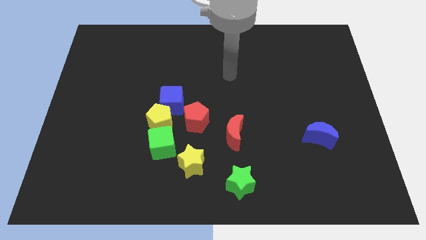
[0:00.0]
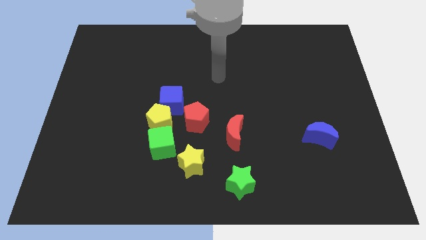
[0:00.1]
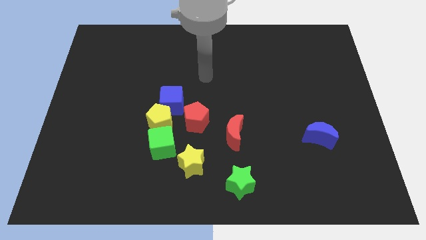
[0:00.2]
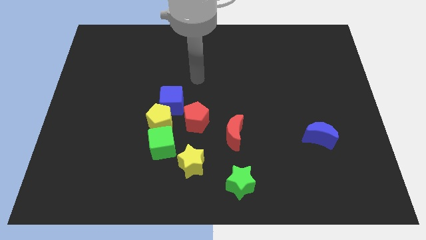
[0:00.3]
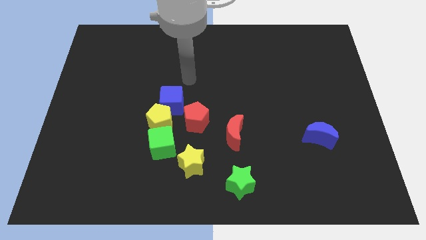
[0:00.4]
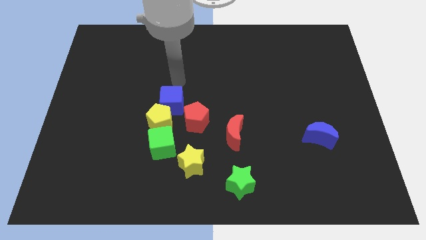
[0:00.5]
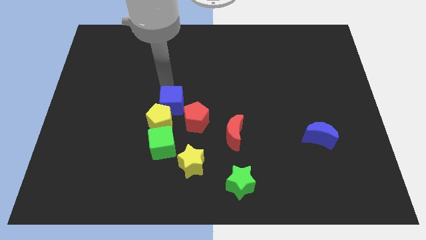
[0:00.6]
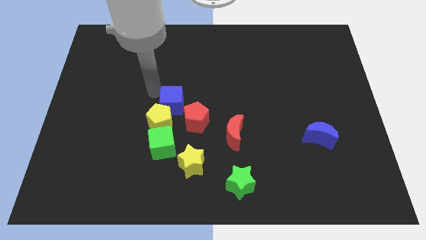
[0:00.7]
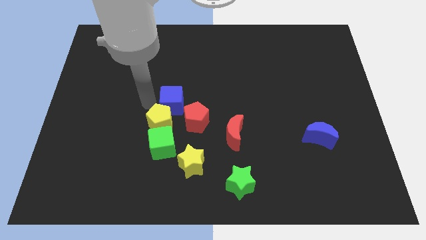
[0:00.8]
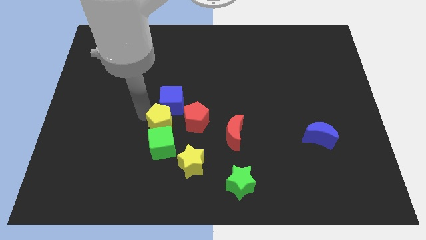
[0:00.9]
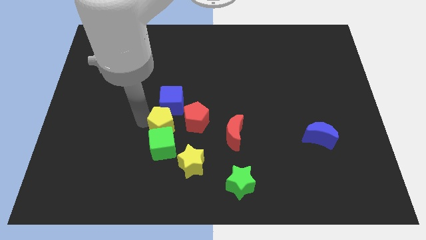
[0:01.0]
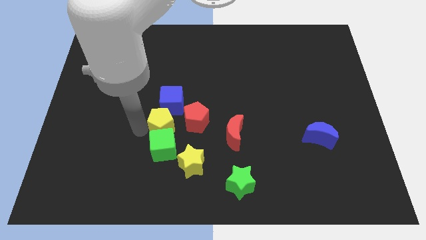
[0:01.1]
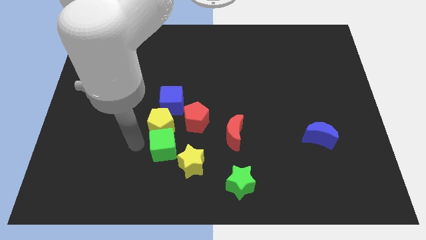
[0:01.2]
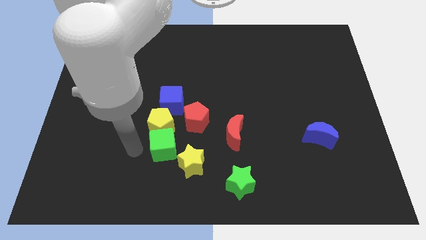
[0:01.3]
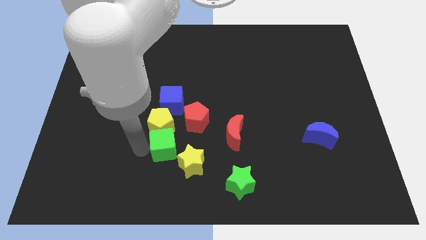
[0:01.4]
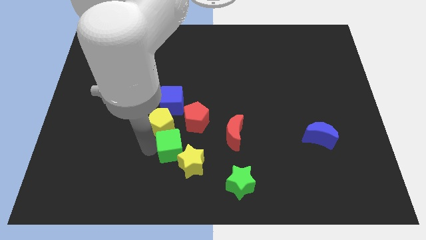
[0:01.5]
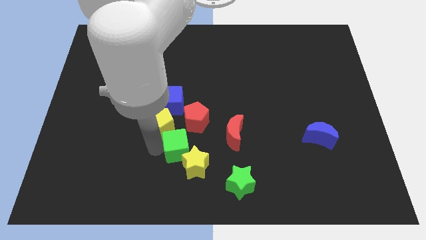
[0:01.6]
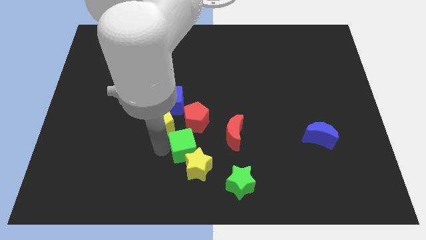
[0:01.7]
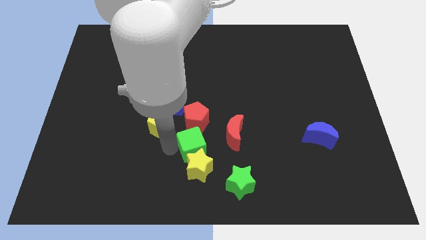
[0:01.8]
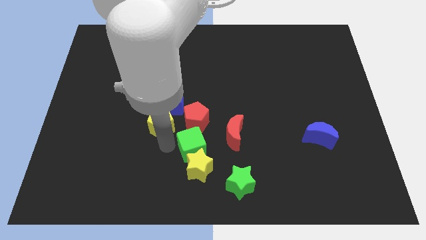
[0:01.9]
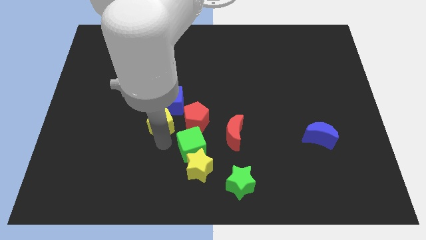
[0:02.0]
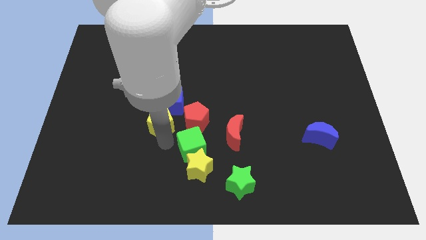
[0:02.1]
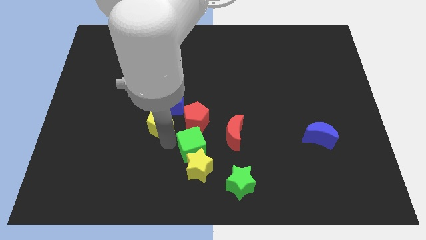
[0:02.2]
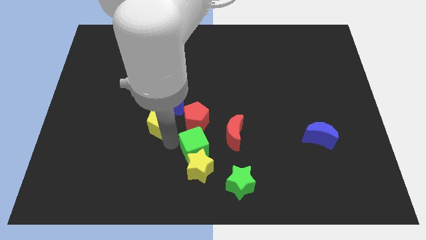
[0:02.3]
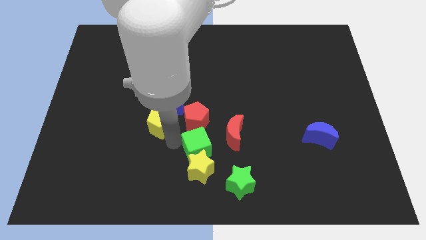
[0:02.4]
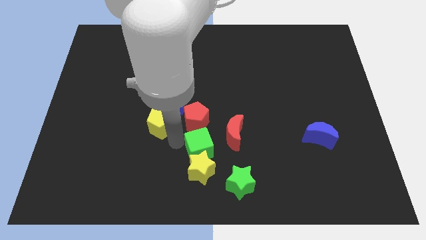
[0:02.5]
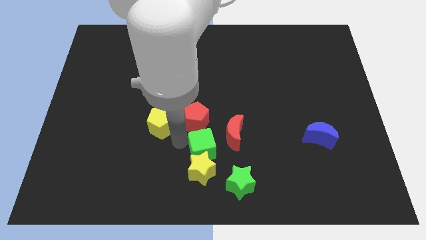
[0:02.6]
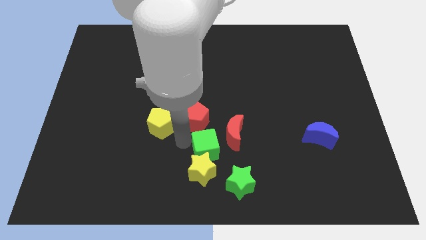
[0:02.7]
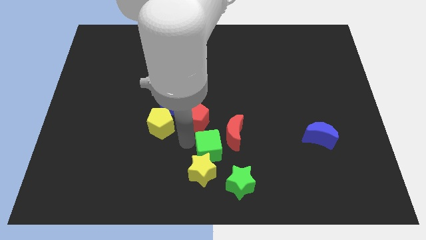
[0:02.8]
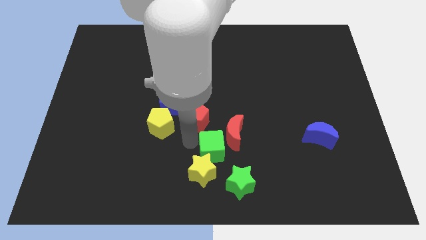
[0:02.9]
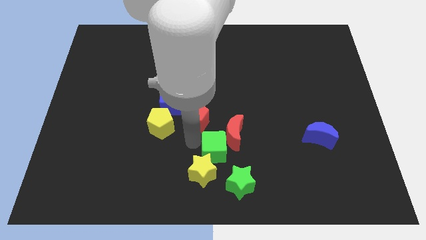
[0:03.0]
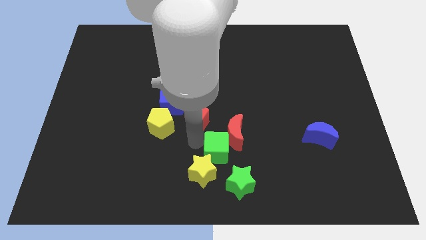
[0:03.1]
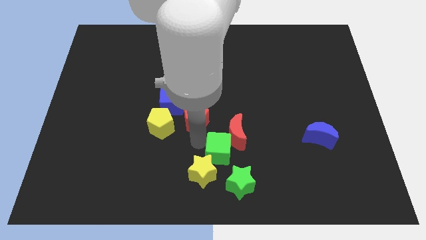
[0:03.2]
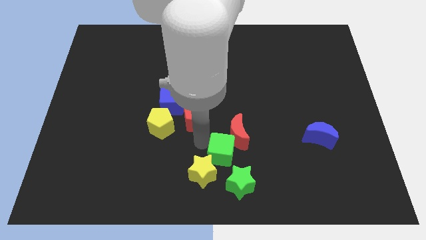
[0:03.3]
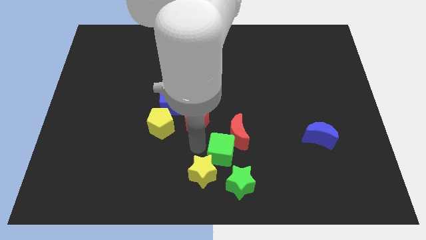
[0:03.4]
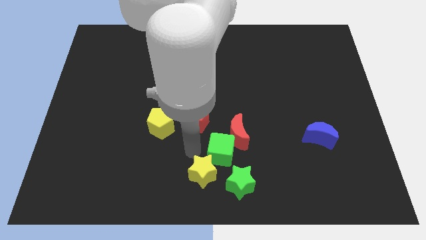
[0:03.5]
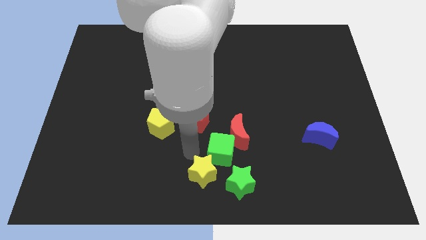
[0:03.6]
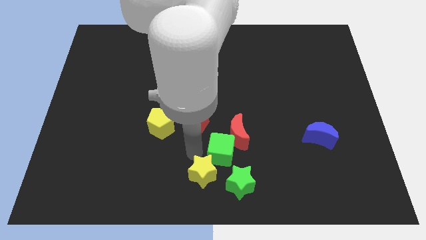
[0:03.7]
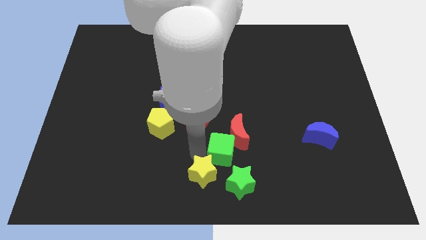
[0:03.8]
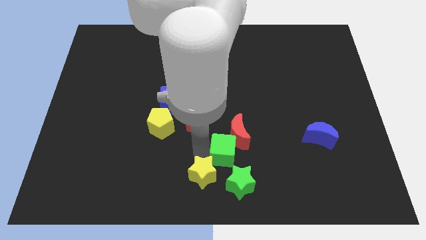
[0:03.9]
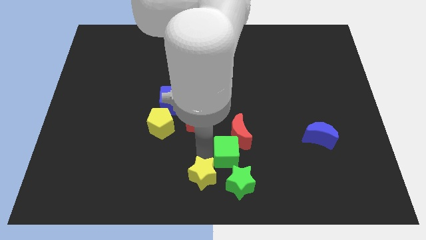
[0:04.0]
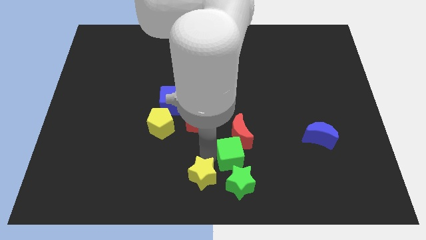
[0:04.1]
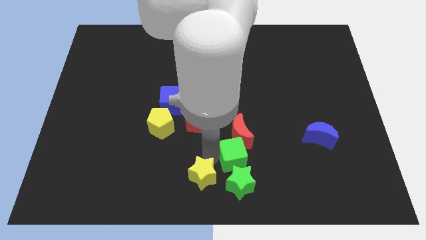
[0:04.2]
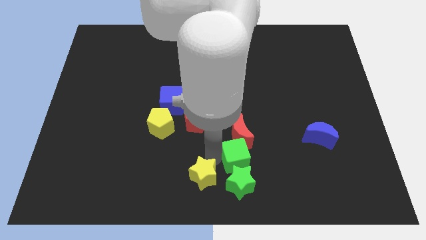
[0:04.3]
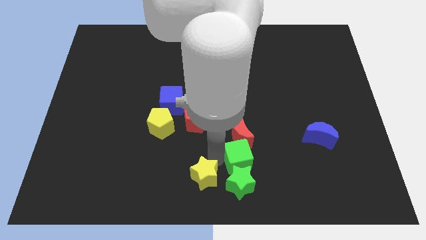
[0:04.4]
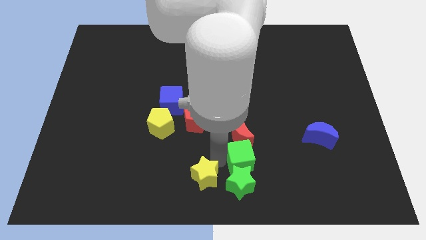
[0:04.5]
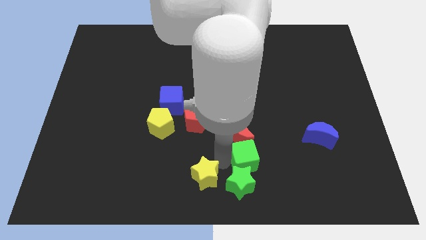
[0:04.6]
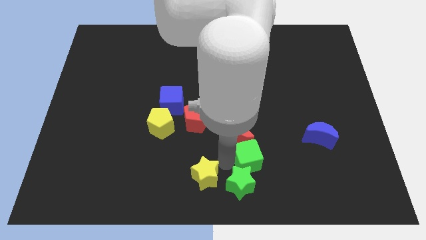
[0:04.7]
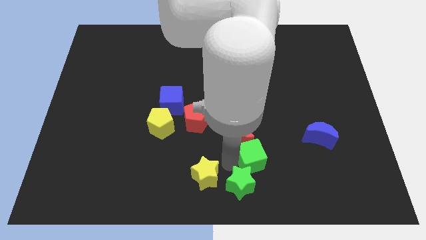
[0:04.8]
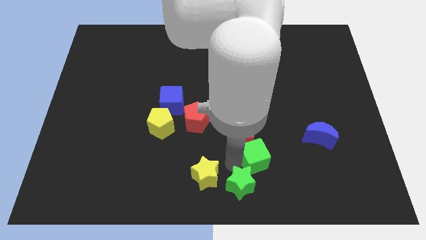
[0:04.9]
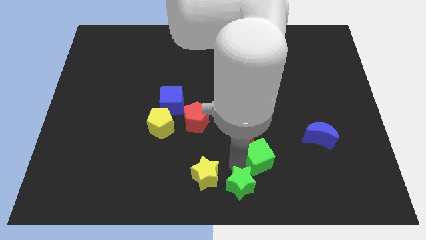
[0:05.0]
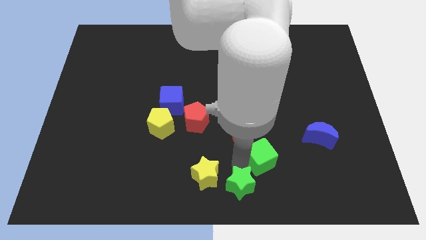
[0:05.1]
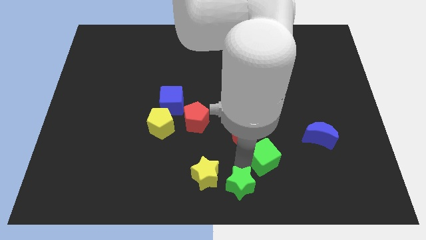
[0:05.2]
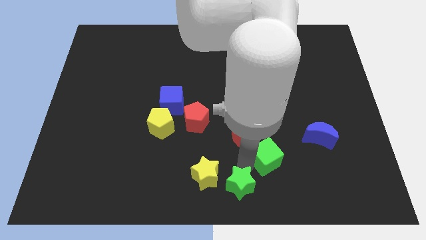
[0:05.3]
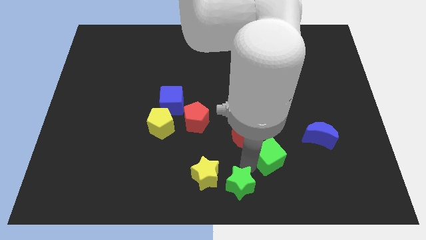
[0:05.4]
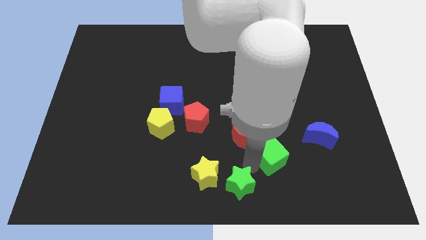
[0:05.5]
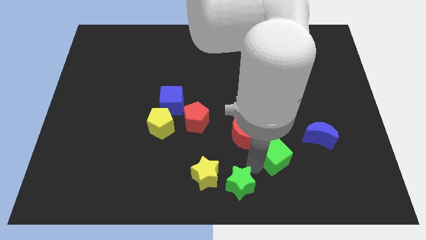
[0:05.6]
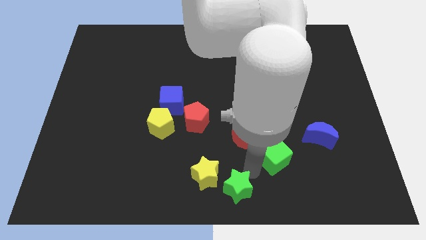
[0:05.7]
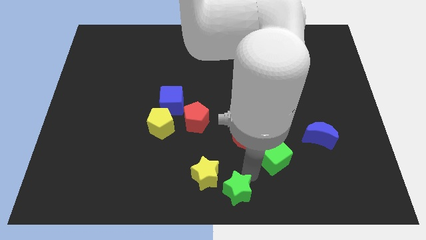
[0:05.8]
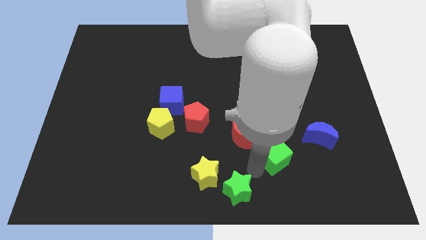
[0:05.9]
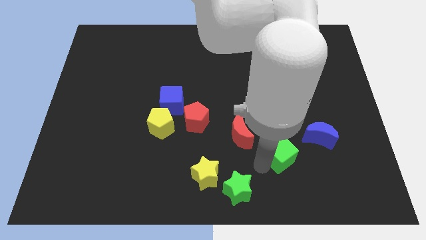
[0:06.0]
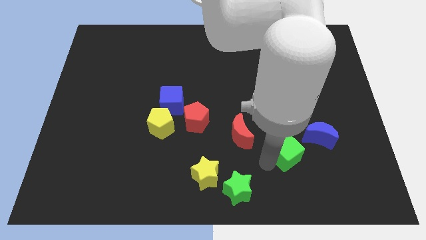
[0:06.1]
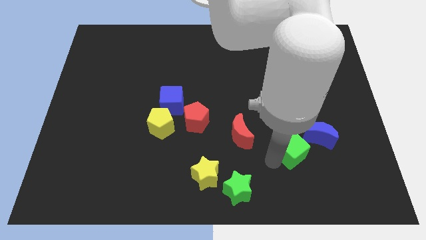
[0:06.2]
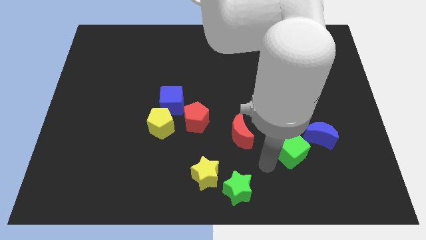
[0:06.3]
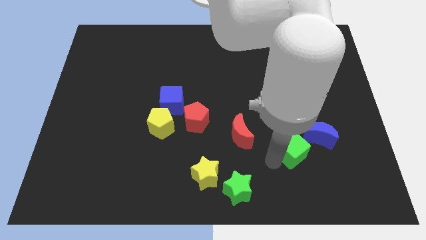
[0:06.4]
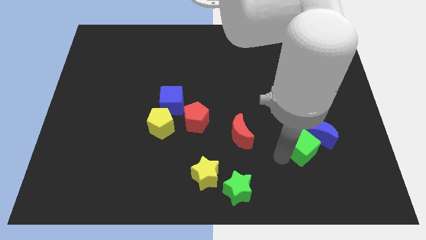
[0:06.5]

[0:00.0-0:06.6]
push the green cube to the blue moon

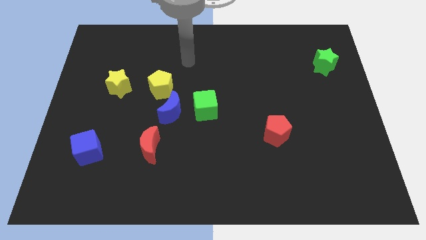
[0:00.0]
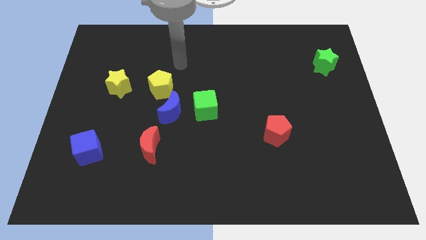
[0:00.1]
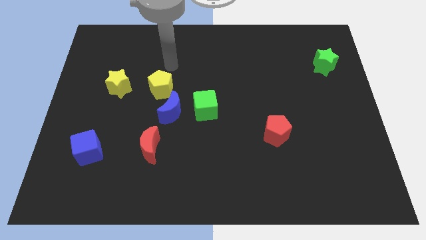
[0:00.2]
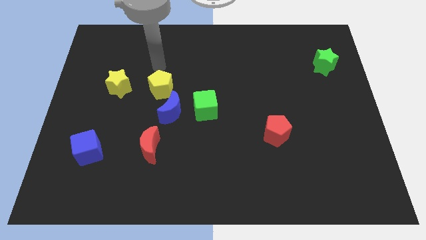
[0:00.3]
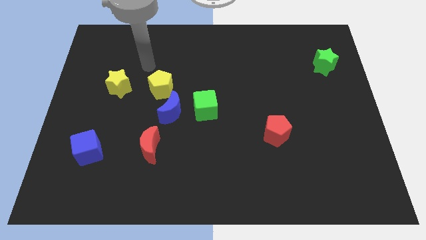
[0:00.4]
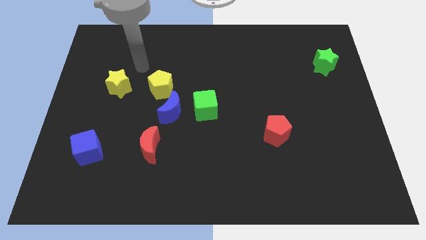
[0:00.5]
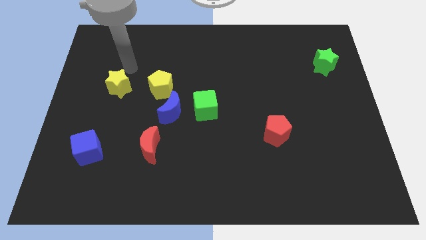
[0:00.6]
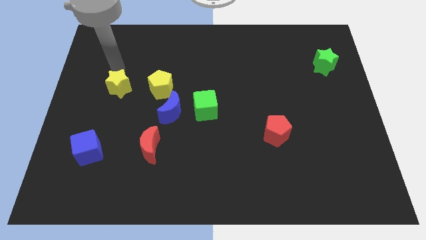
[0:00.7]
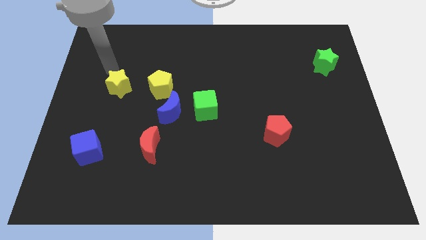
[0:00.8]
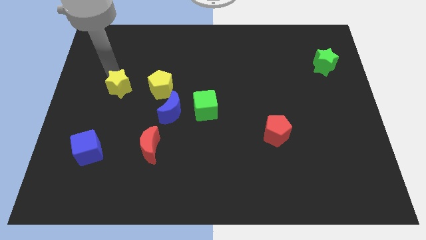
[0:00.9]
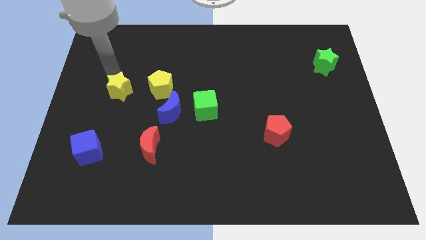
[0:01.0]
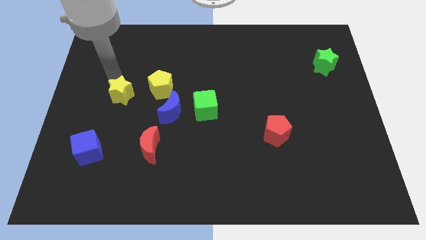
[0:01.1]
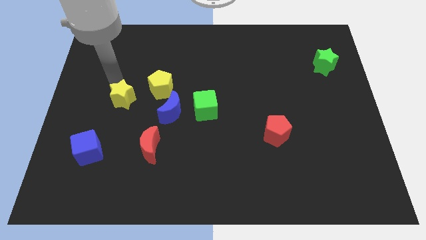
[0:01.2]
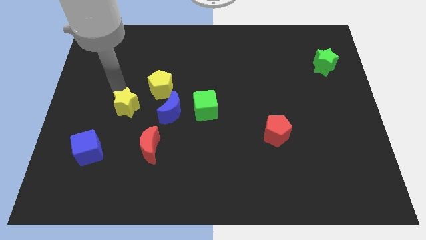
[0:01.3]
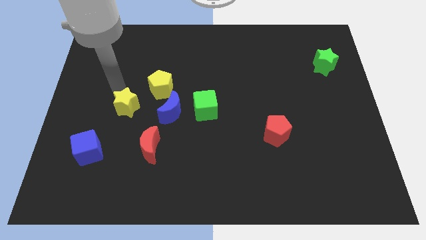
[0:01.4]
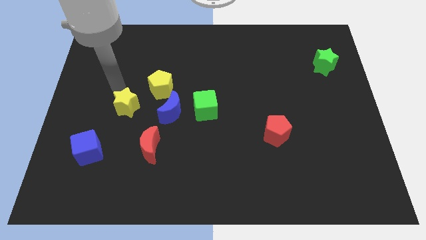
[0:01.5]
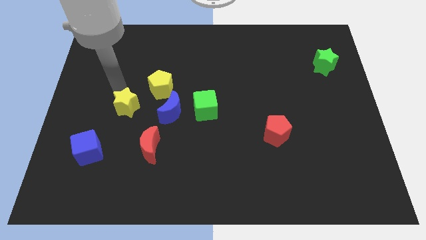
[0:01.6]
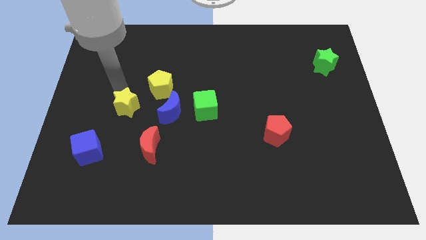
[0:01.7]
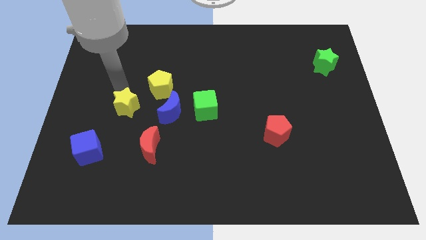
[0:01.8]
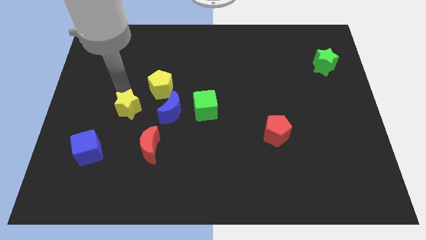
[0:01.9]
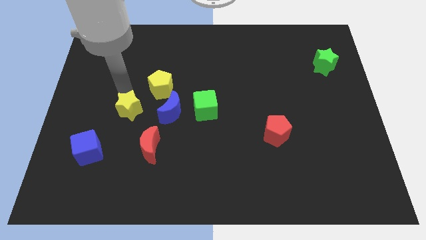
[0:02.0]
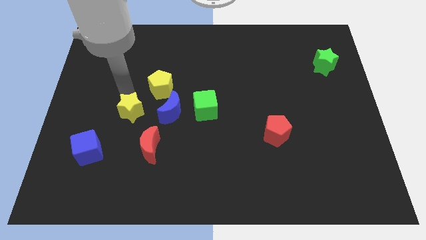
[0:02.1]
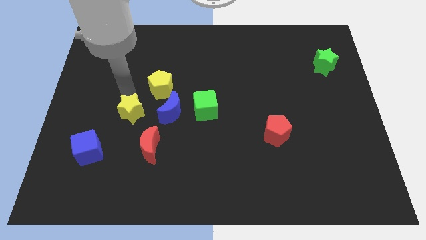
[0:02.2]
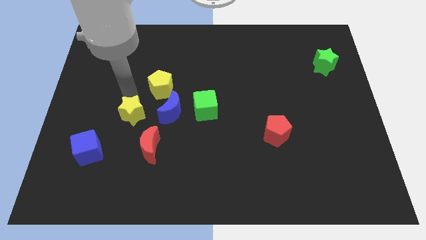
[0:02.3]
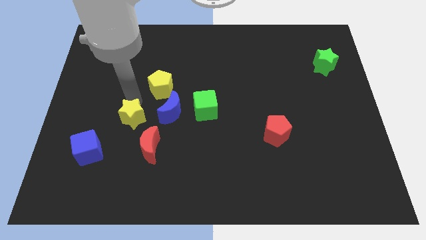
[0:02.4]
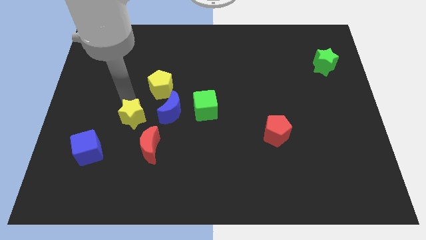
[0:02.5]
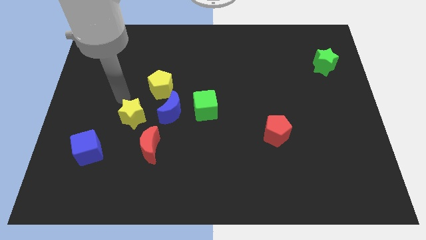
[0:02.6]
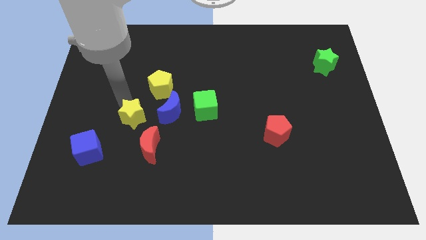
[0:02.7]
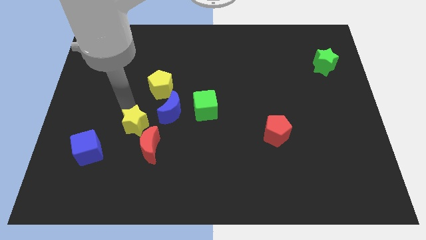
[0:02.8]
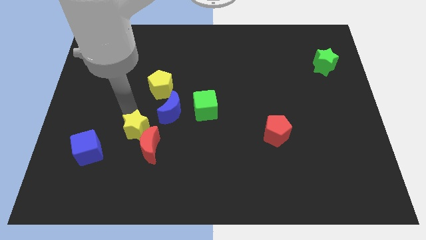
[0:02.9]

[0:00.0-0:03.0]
slide the yellow star close to the red moon
